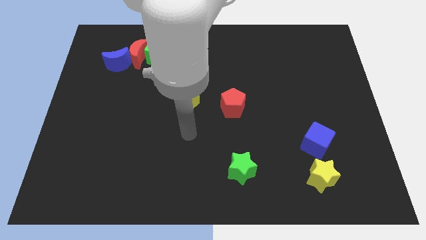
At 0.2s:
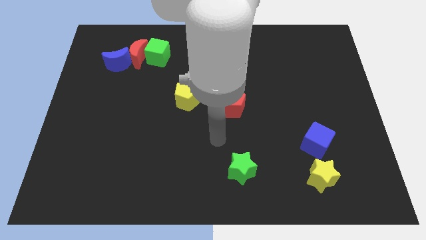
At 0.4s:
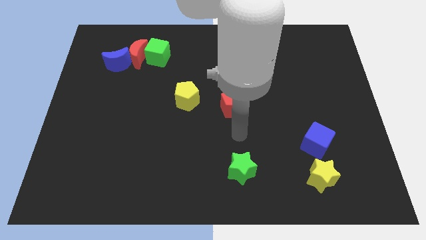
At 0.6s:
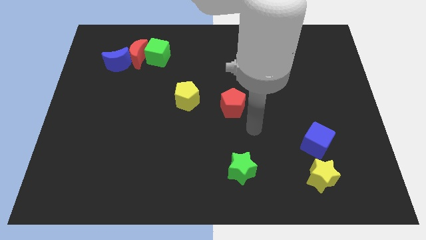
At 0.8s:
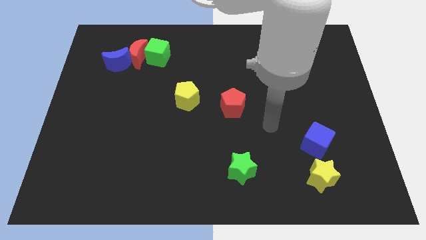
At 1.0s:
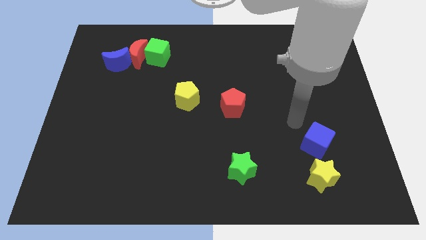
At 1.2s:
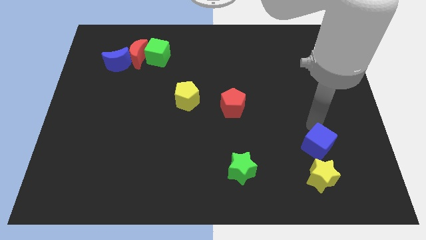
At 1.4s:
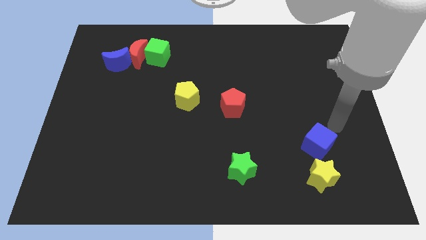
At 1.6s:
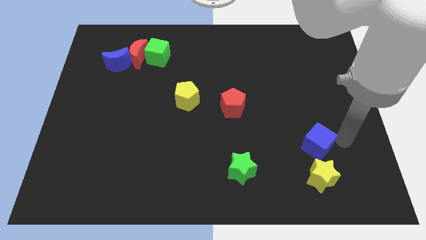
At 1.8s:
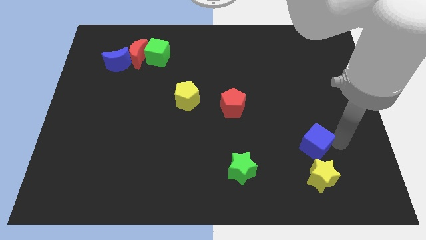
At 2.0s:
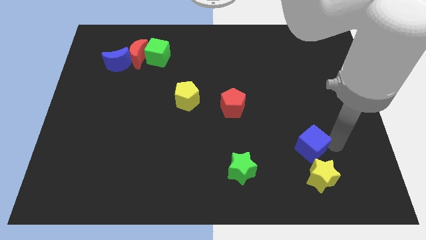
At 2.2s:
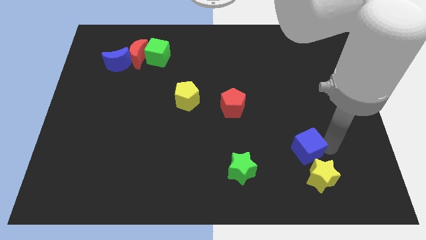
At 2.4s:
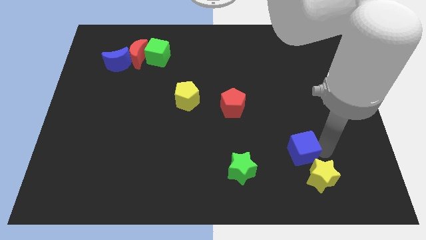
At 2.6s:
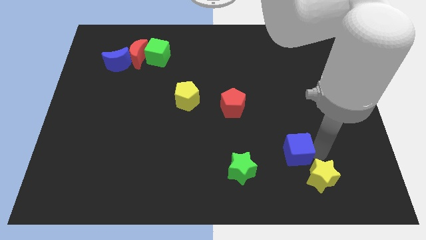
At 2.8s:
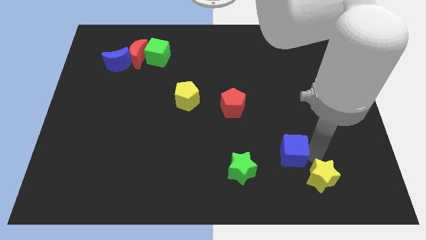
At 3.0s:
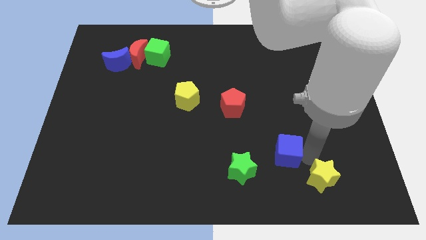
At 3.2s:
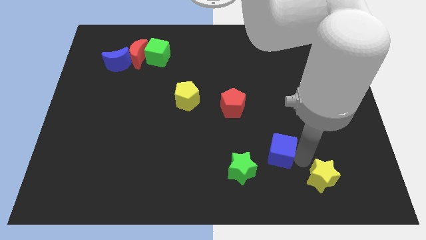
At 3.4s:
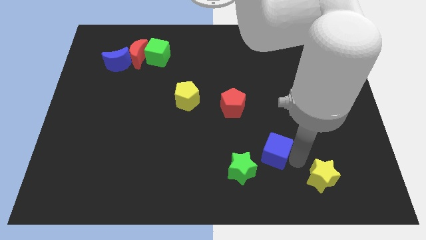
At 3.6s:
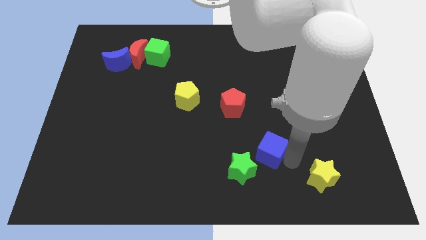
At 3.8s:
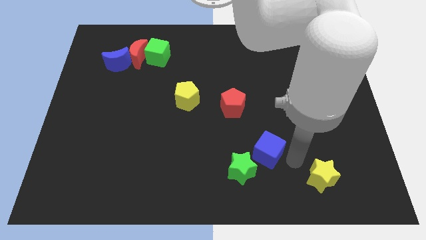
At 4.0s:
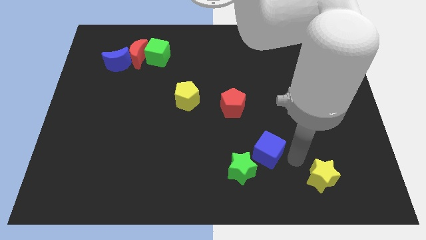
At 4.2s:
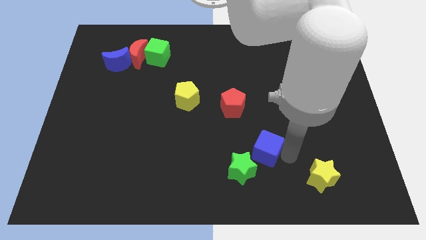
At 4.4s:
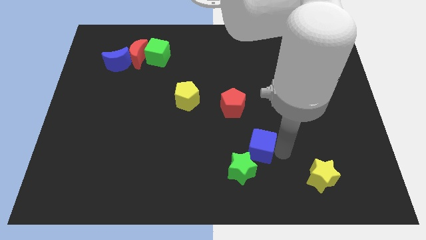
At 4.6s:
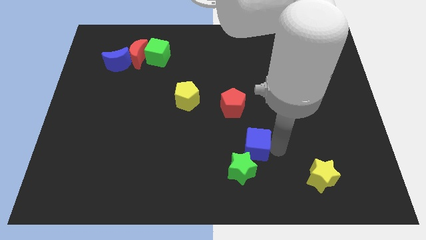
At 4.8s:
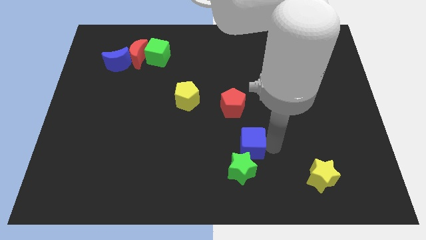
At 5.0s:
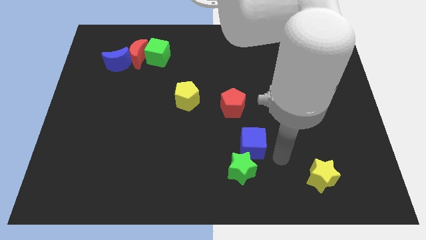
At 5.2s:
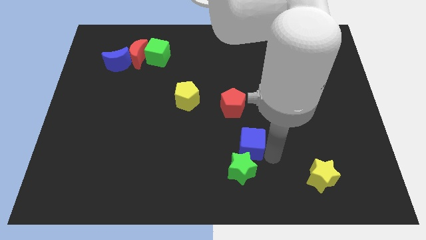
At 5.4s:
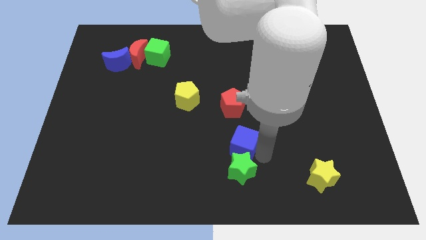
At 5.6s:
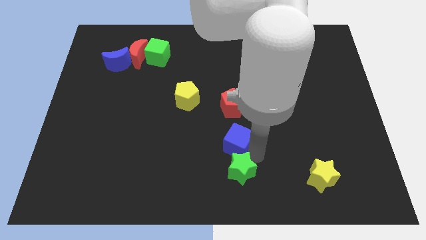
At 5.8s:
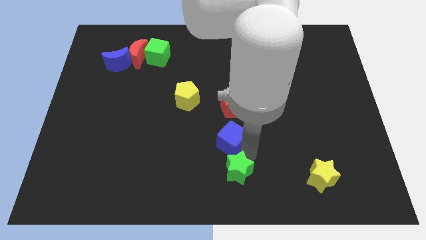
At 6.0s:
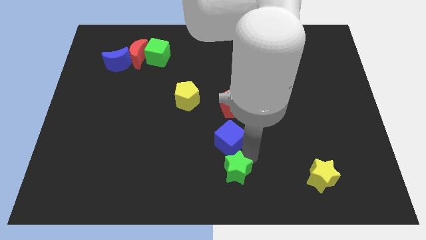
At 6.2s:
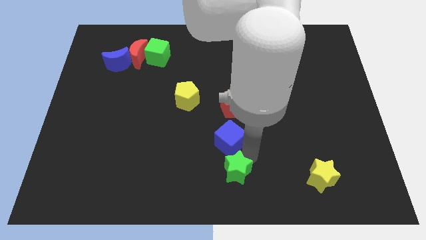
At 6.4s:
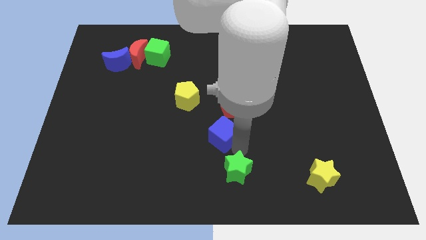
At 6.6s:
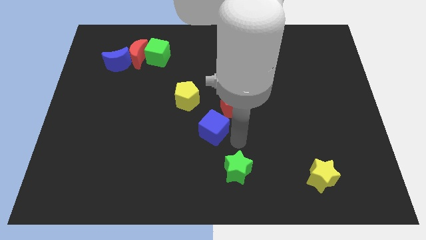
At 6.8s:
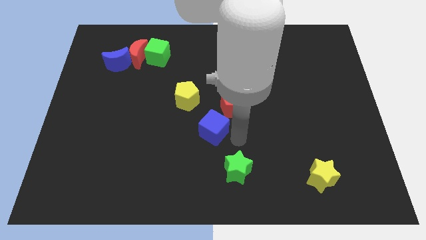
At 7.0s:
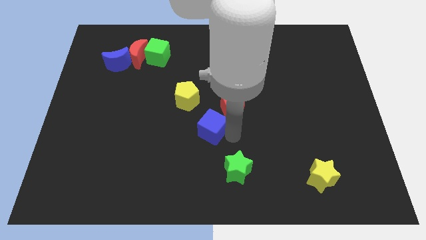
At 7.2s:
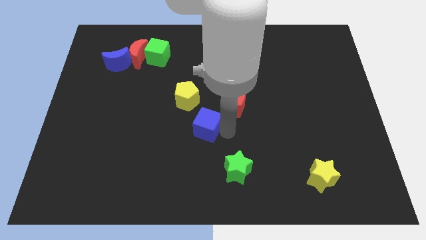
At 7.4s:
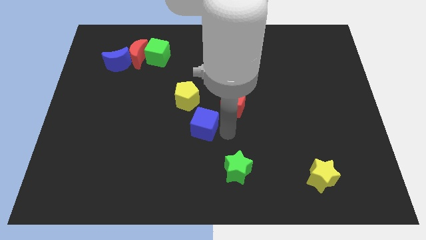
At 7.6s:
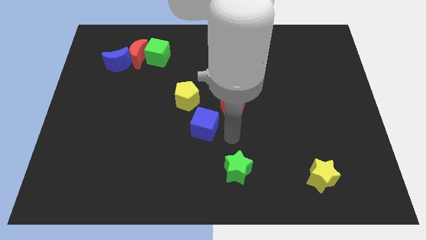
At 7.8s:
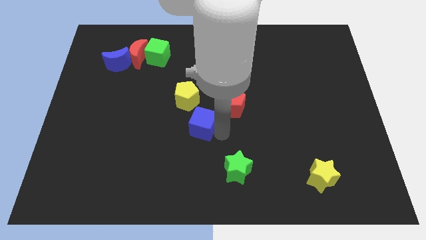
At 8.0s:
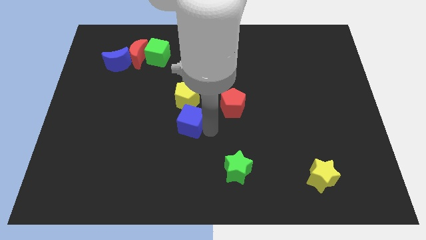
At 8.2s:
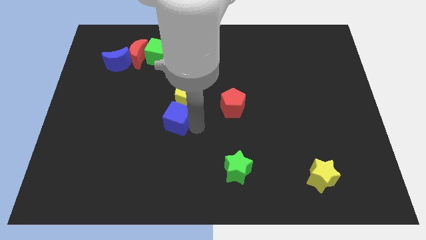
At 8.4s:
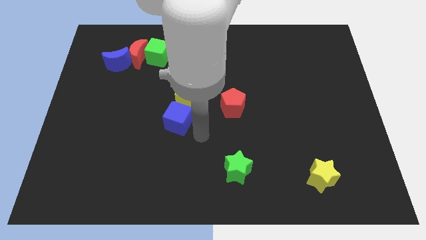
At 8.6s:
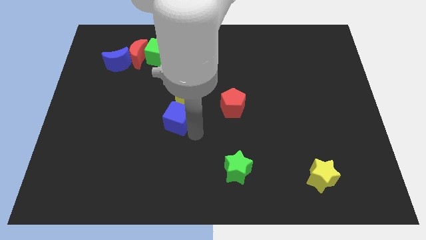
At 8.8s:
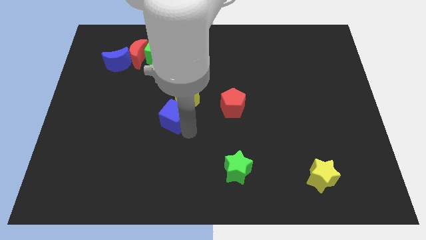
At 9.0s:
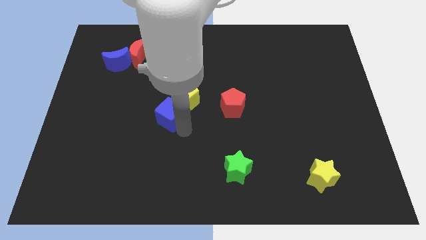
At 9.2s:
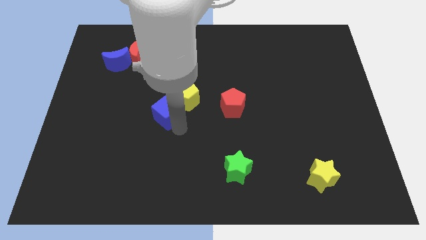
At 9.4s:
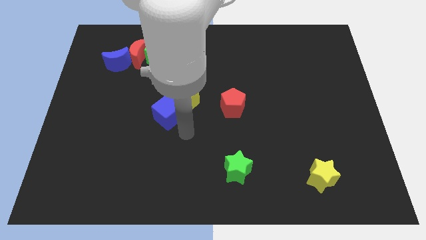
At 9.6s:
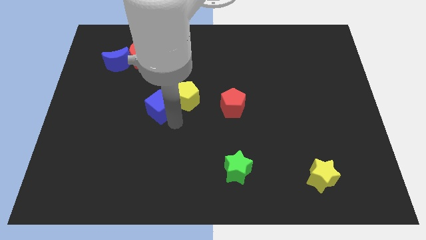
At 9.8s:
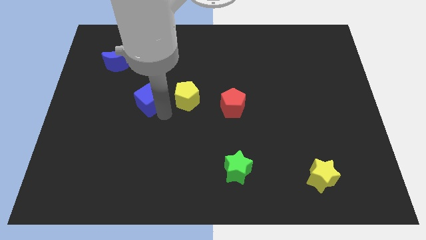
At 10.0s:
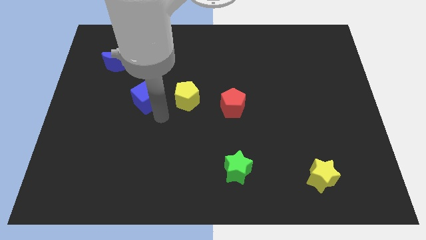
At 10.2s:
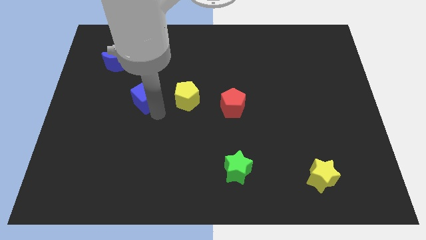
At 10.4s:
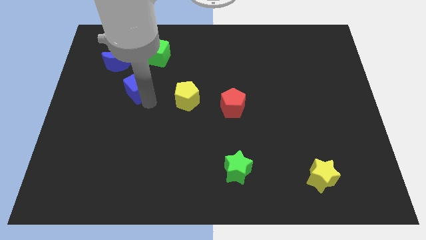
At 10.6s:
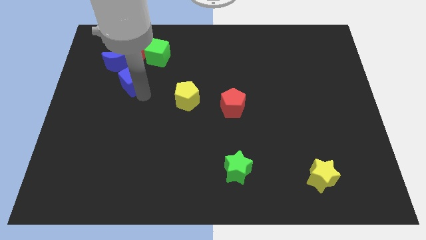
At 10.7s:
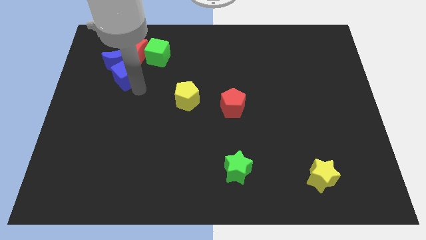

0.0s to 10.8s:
move the blue cube to the blue moon

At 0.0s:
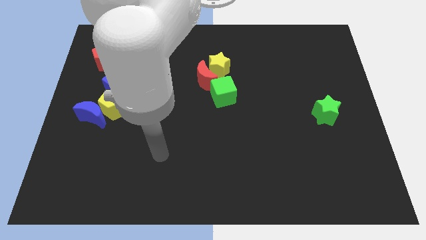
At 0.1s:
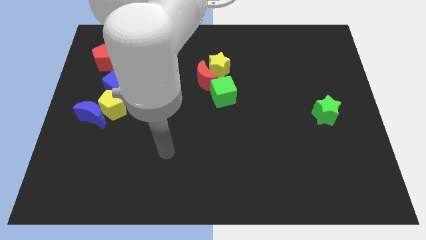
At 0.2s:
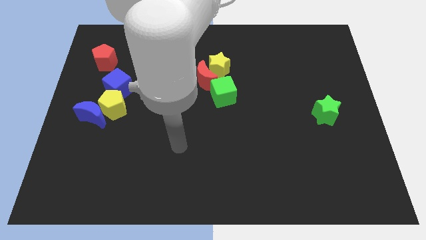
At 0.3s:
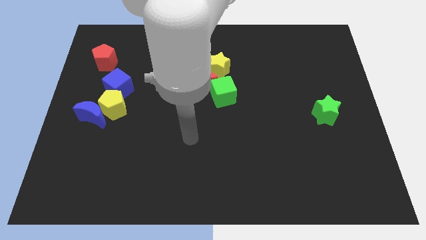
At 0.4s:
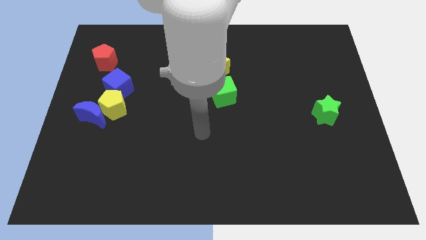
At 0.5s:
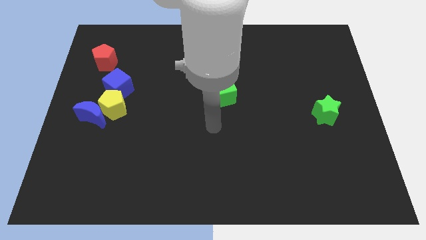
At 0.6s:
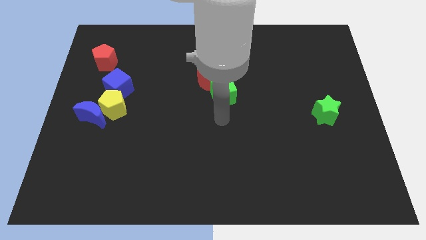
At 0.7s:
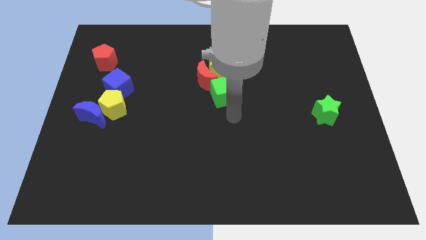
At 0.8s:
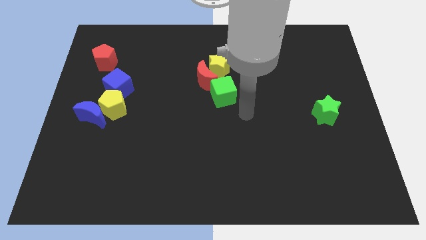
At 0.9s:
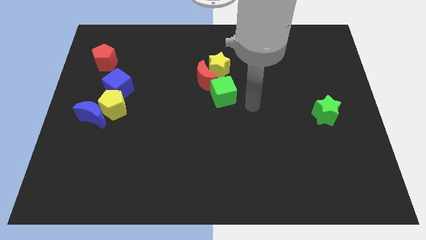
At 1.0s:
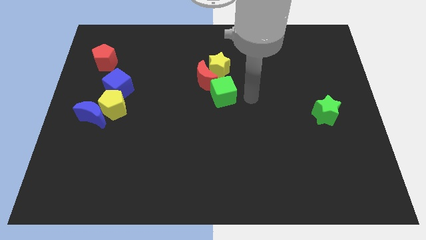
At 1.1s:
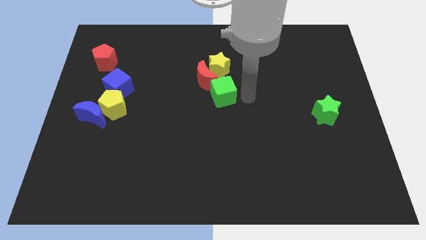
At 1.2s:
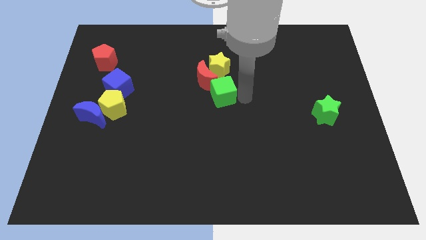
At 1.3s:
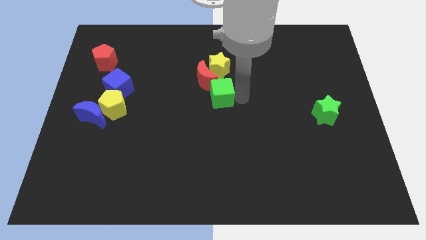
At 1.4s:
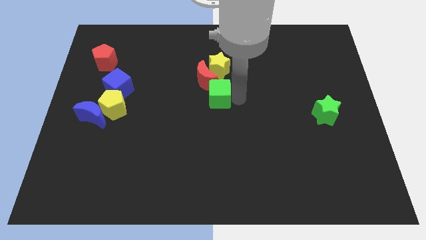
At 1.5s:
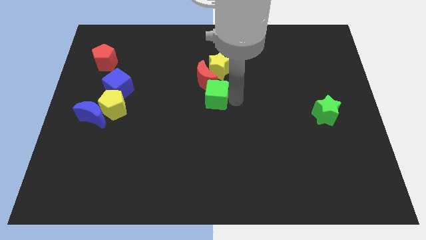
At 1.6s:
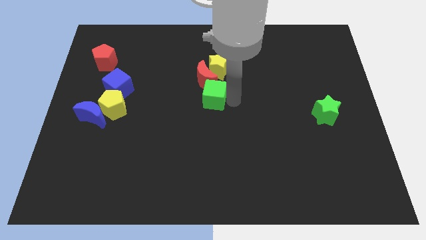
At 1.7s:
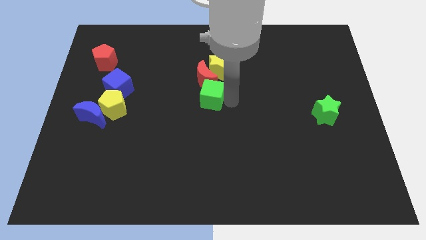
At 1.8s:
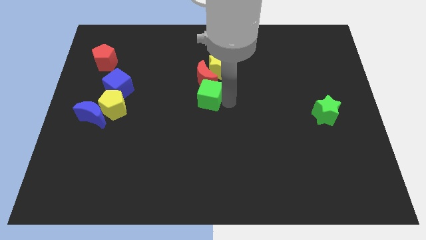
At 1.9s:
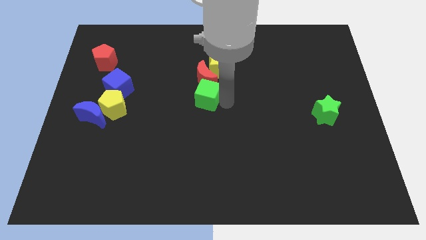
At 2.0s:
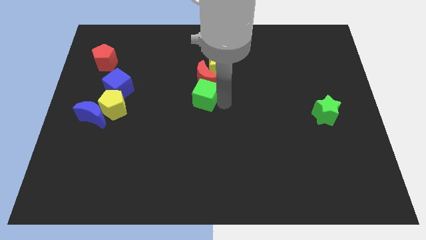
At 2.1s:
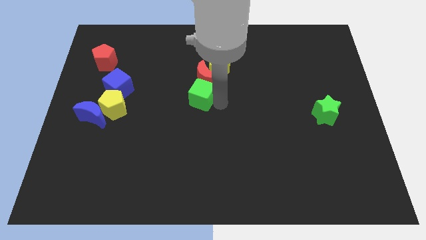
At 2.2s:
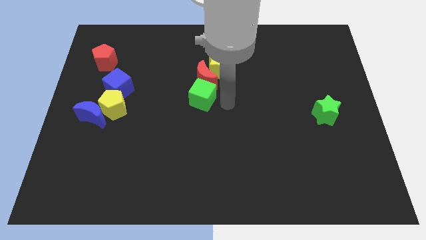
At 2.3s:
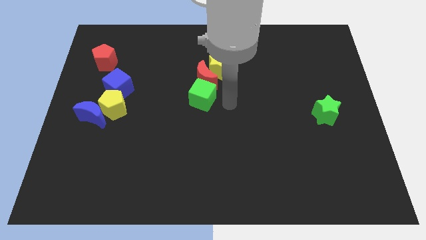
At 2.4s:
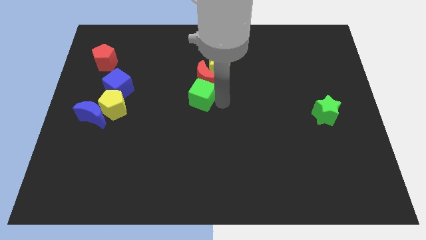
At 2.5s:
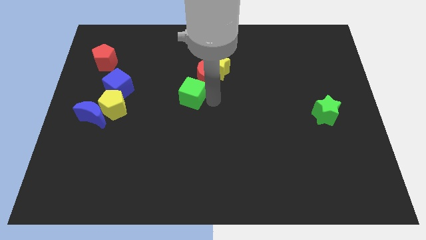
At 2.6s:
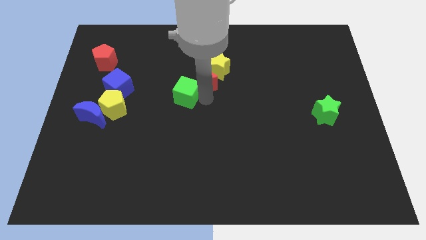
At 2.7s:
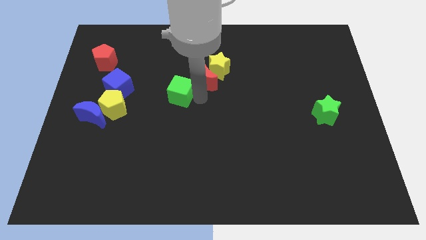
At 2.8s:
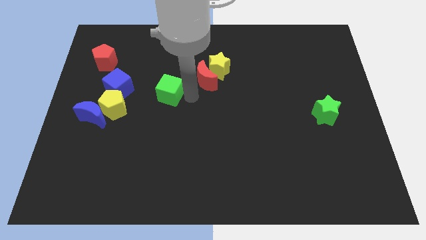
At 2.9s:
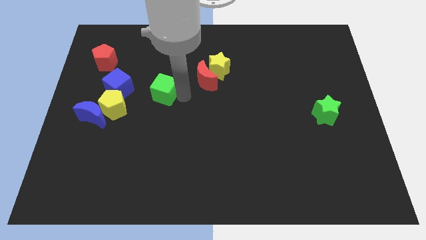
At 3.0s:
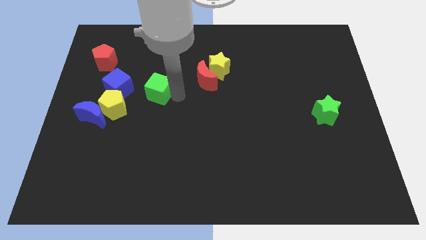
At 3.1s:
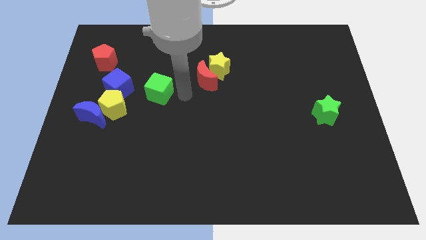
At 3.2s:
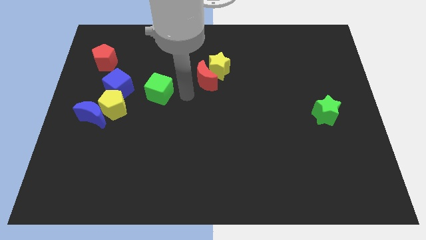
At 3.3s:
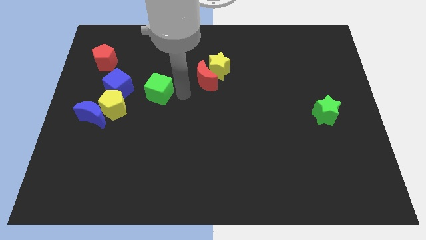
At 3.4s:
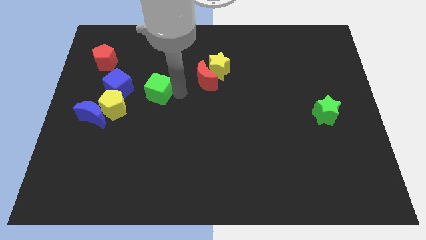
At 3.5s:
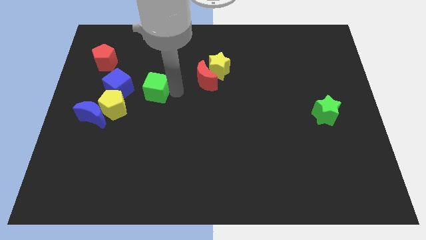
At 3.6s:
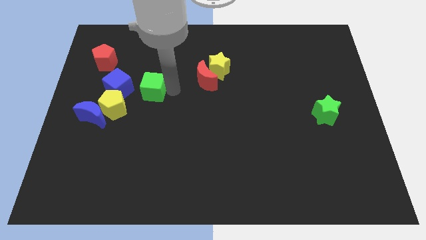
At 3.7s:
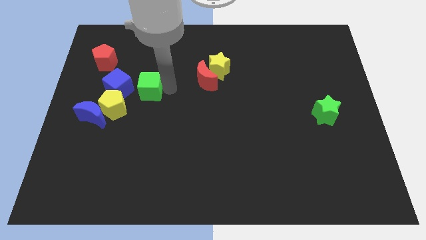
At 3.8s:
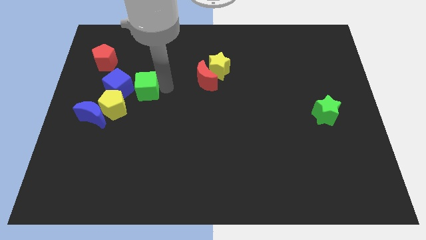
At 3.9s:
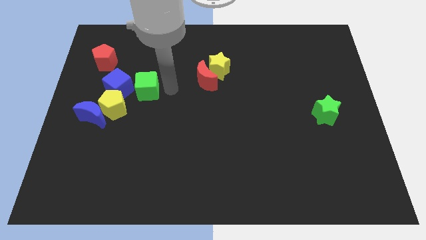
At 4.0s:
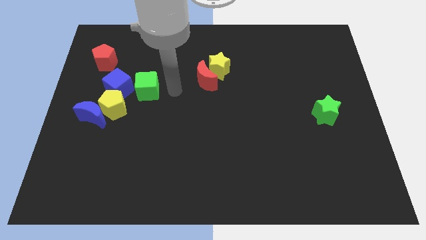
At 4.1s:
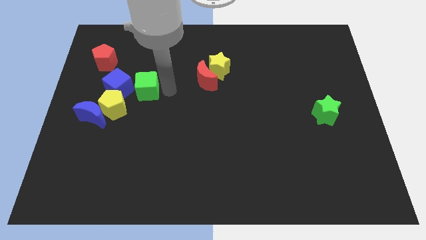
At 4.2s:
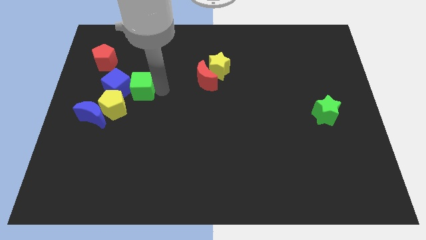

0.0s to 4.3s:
push the green cube close to the blue cube
